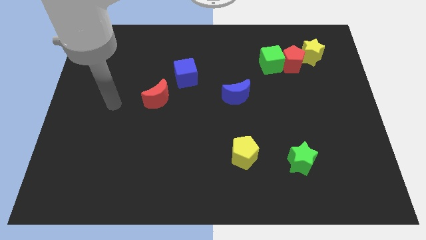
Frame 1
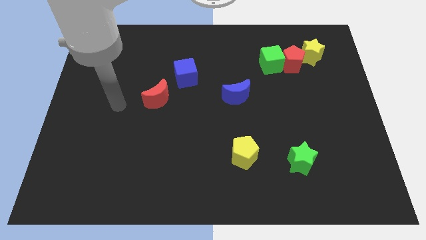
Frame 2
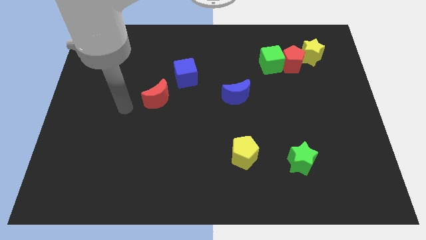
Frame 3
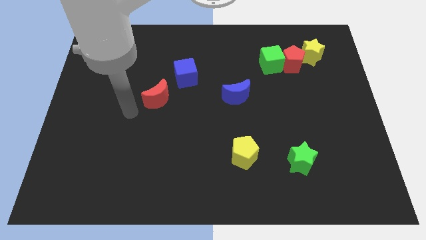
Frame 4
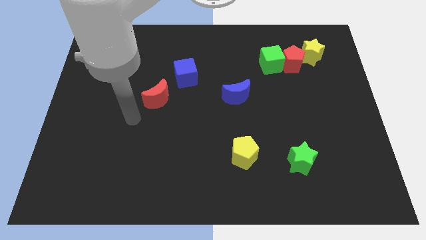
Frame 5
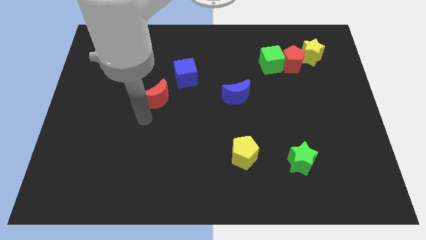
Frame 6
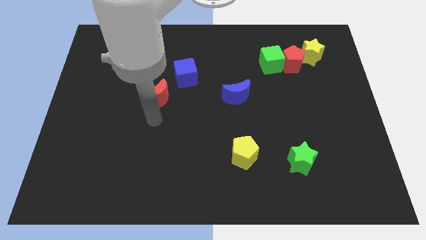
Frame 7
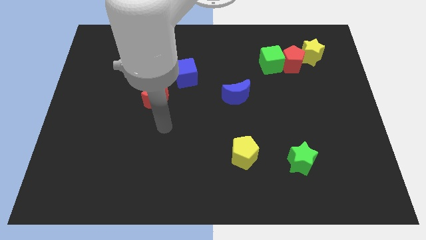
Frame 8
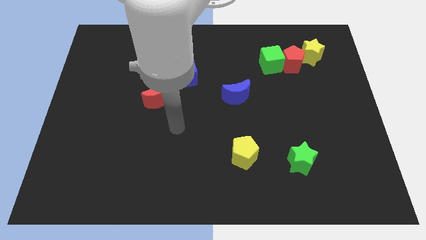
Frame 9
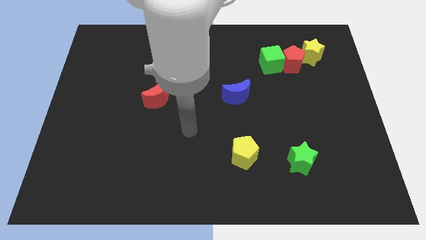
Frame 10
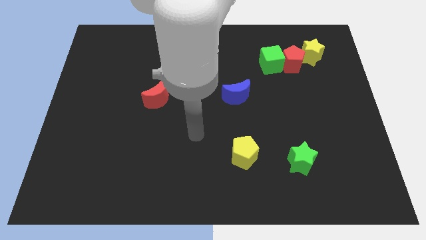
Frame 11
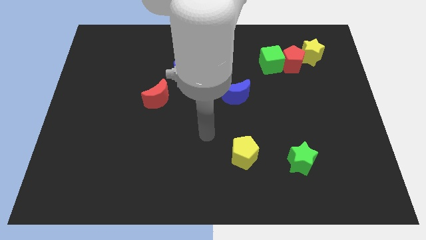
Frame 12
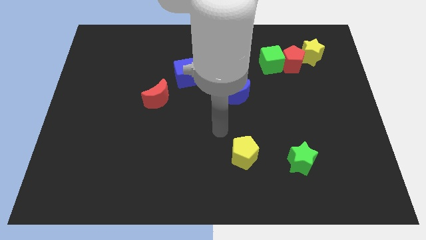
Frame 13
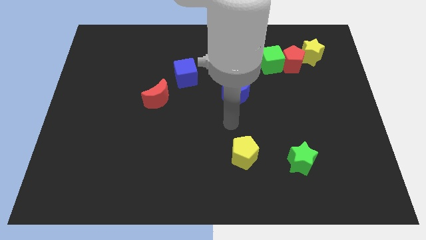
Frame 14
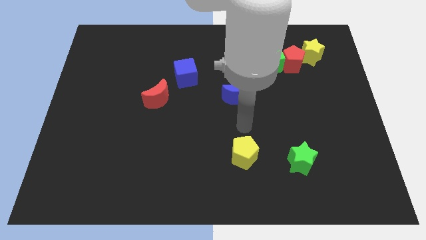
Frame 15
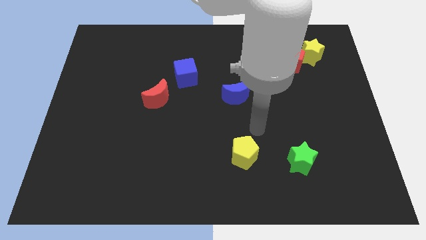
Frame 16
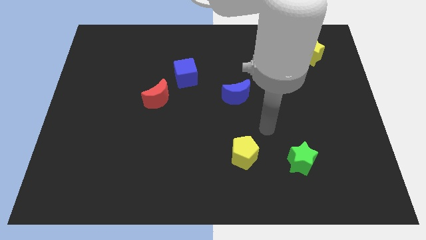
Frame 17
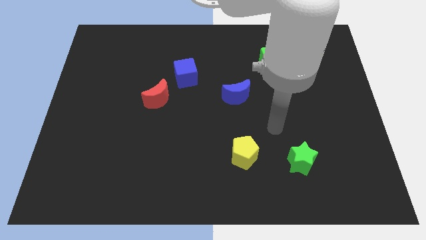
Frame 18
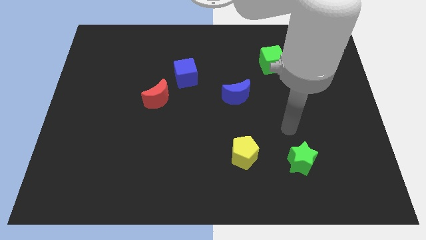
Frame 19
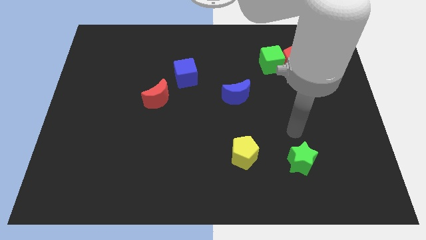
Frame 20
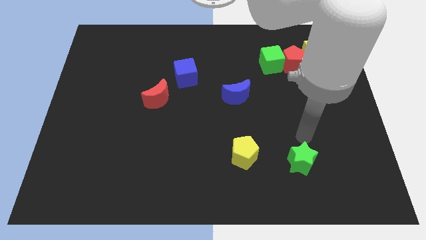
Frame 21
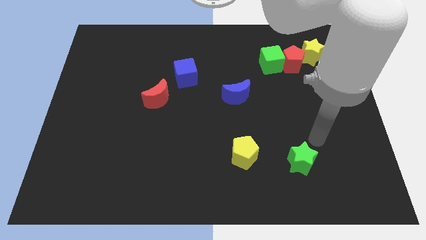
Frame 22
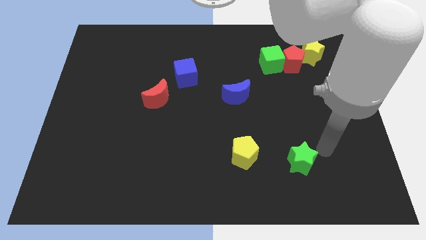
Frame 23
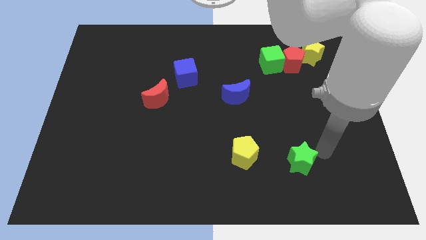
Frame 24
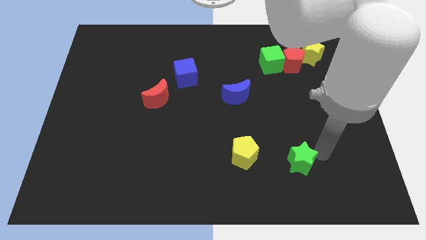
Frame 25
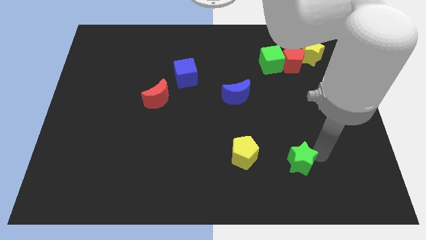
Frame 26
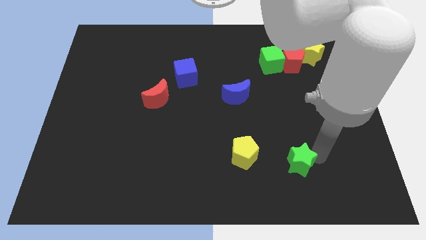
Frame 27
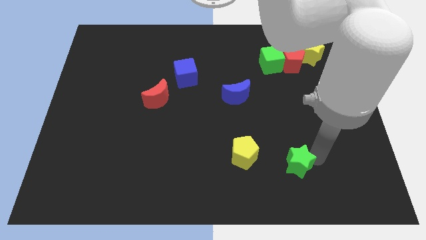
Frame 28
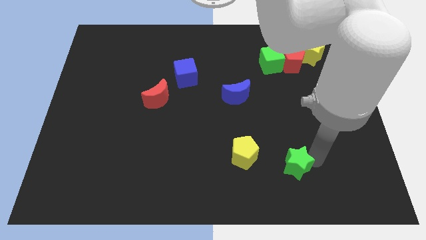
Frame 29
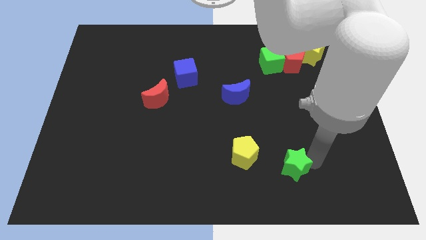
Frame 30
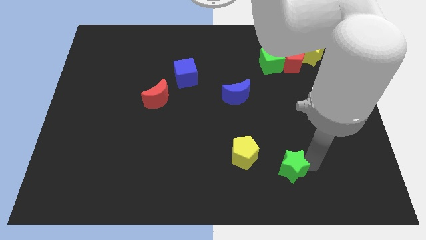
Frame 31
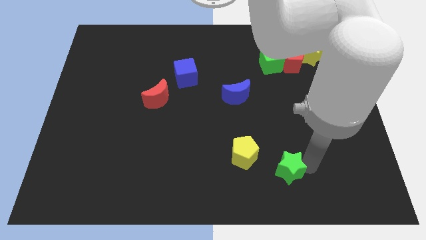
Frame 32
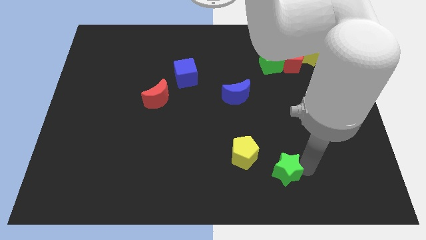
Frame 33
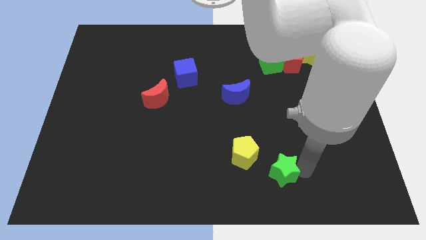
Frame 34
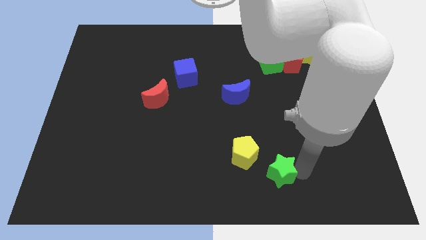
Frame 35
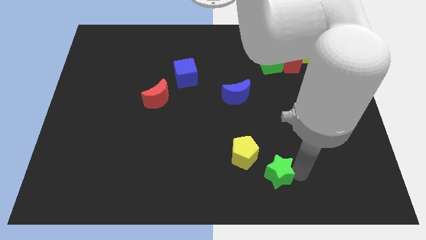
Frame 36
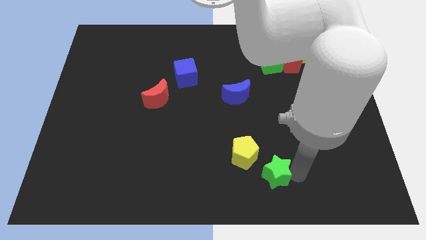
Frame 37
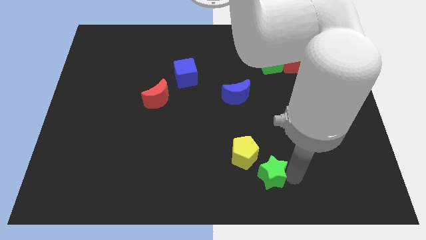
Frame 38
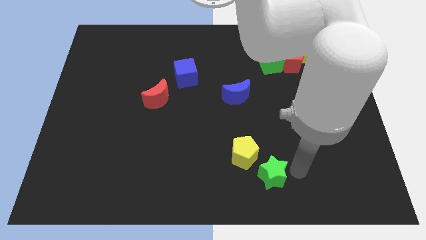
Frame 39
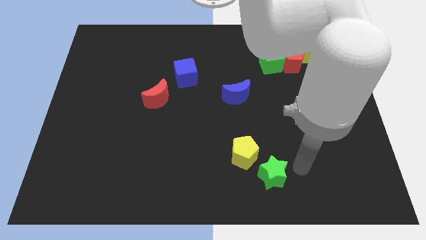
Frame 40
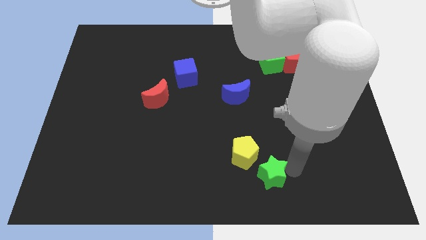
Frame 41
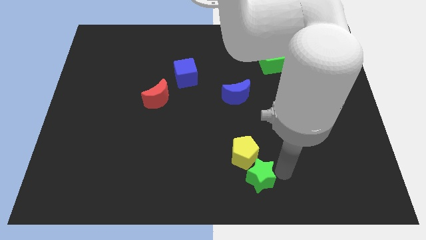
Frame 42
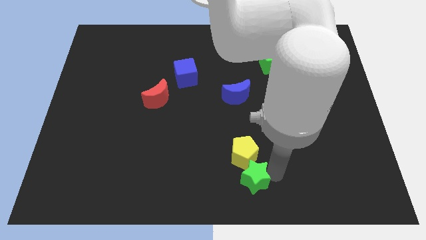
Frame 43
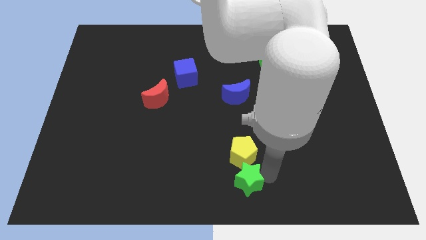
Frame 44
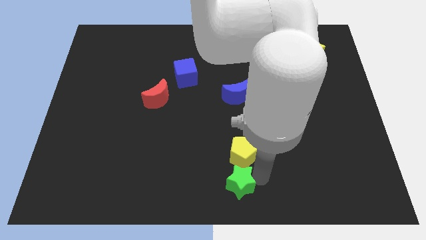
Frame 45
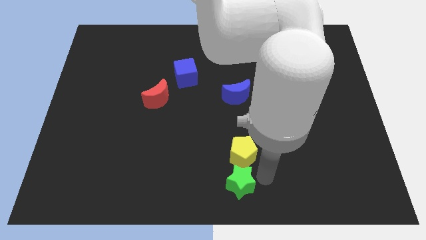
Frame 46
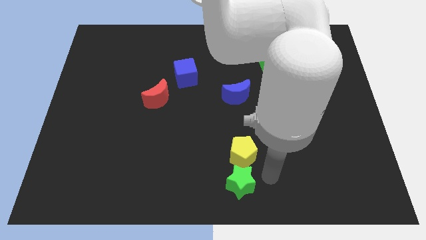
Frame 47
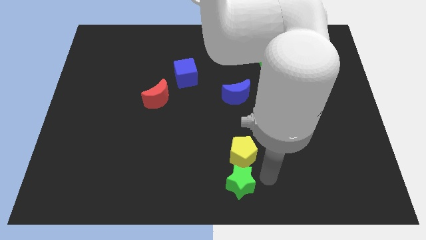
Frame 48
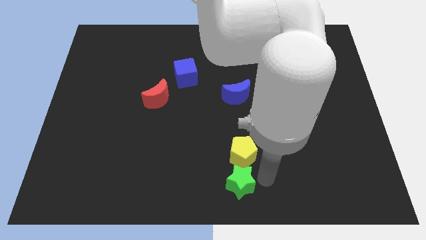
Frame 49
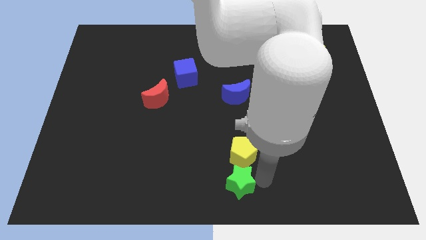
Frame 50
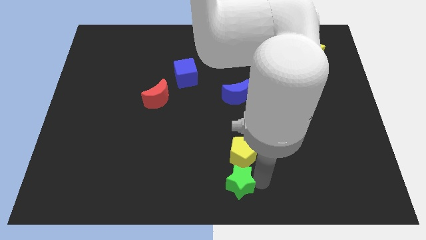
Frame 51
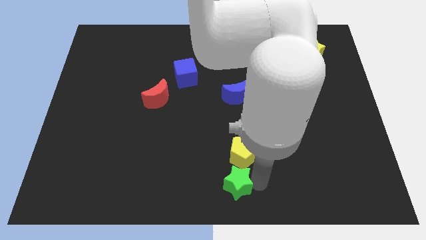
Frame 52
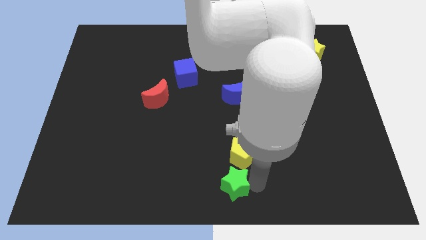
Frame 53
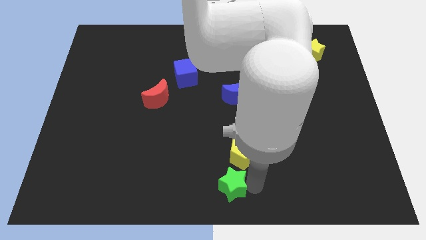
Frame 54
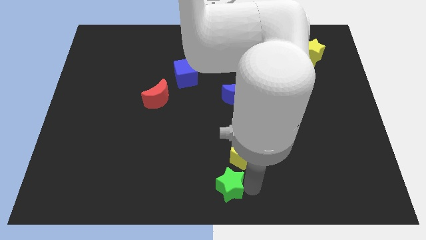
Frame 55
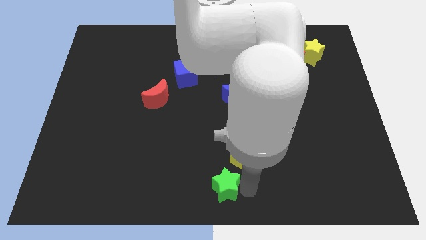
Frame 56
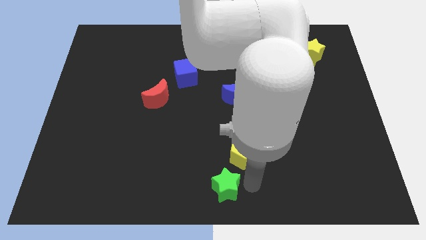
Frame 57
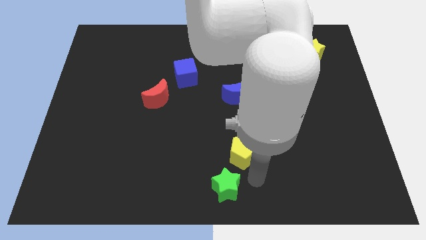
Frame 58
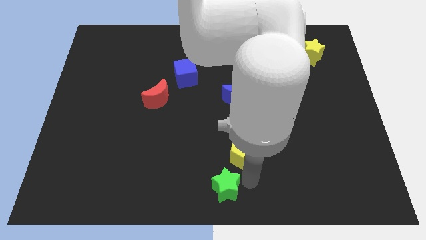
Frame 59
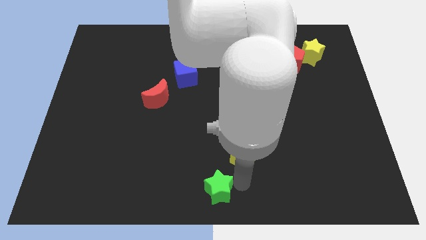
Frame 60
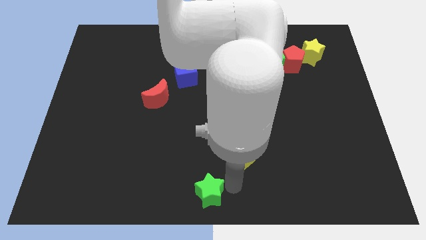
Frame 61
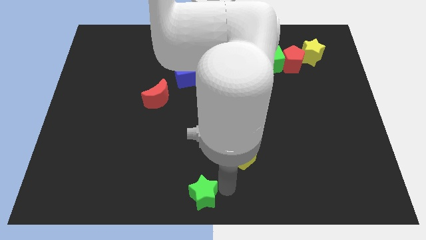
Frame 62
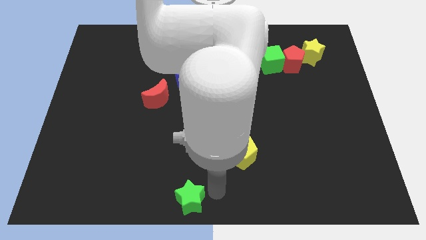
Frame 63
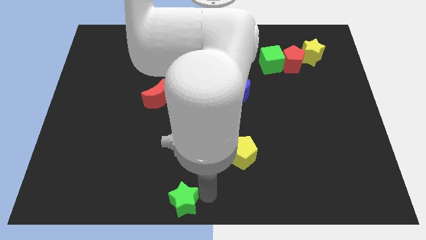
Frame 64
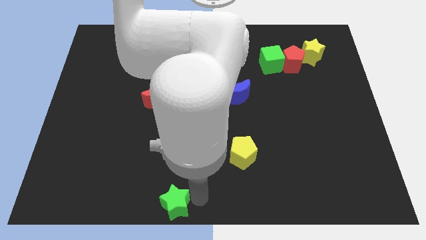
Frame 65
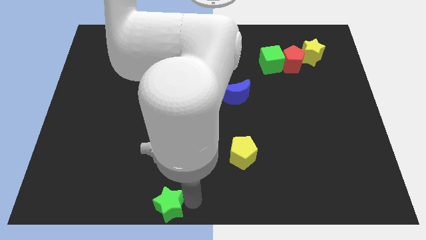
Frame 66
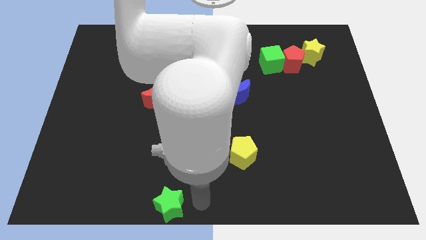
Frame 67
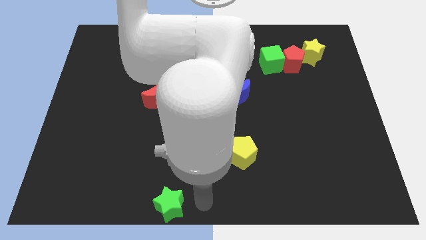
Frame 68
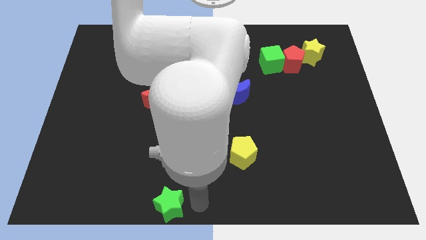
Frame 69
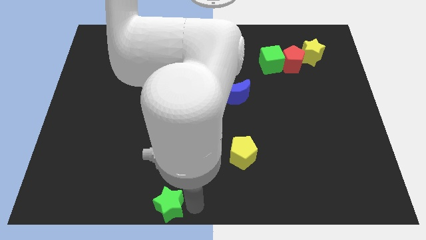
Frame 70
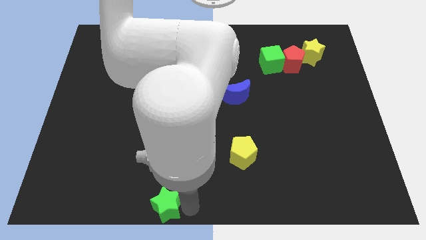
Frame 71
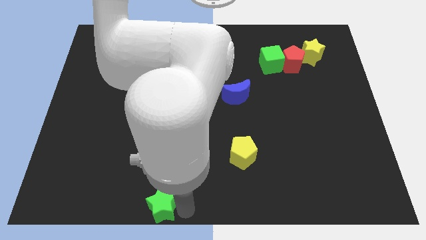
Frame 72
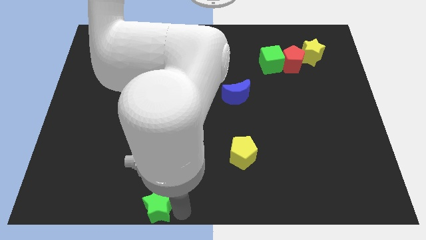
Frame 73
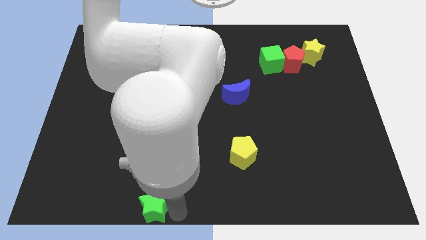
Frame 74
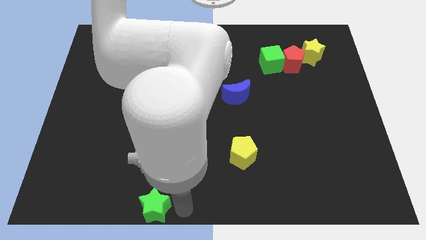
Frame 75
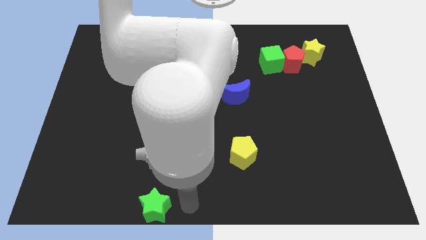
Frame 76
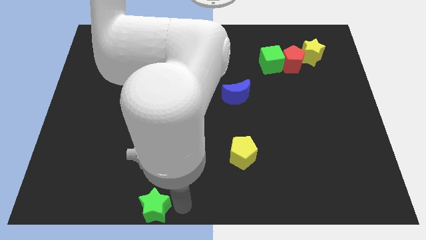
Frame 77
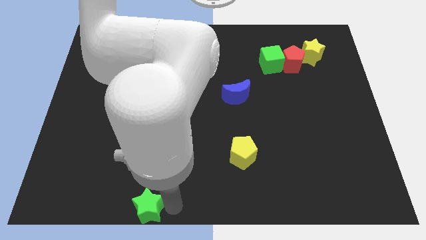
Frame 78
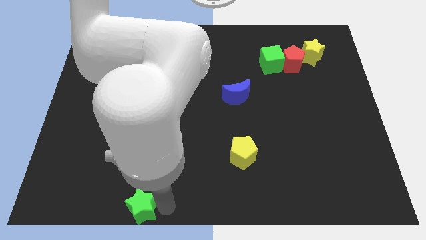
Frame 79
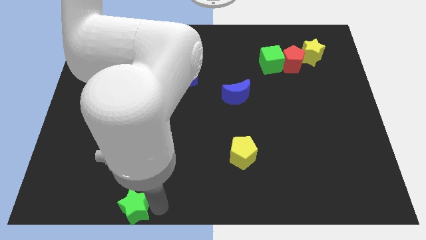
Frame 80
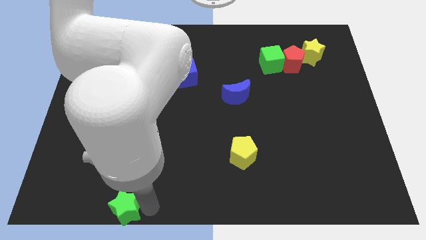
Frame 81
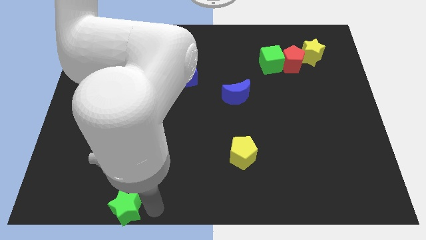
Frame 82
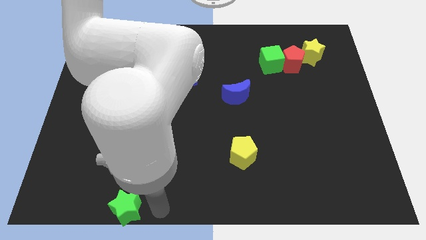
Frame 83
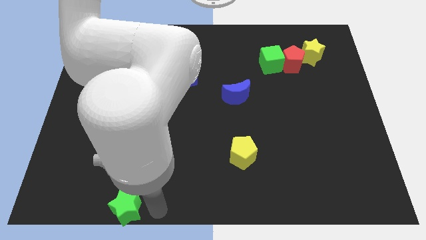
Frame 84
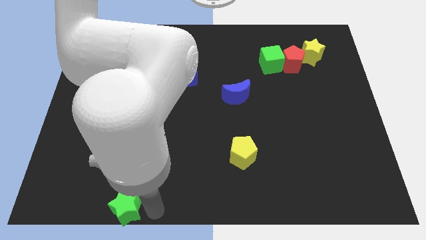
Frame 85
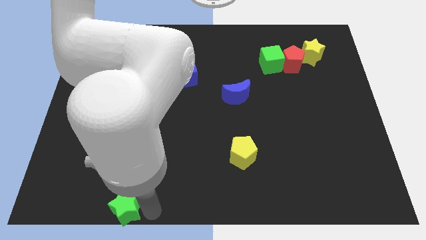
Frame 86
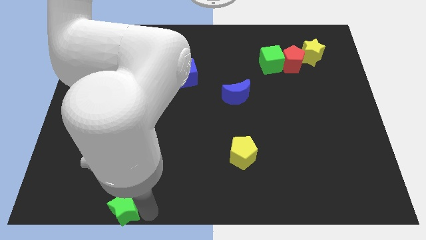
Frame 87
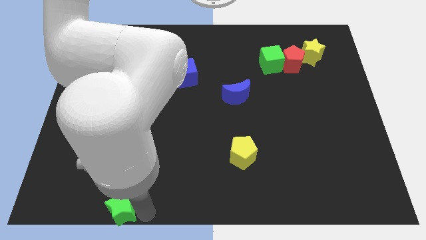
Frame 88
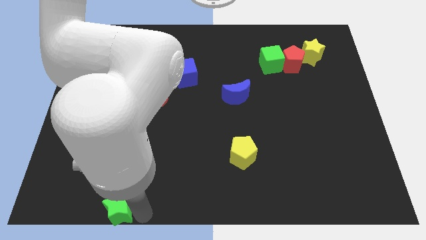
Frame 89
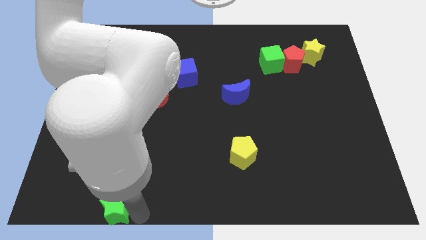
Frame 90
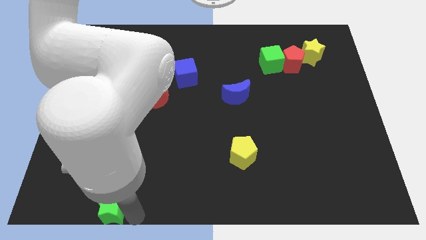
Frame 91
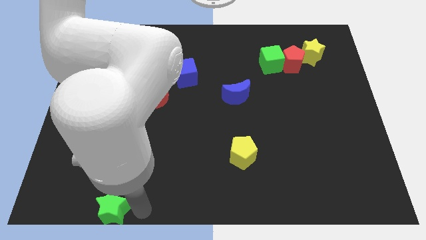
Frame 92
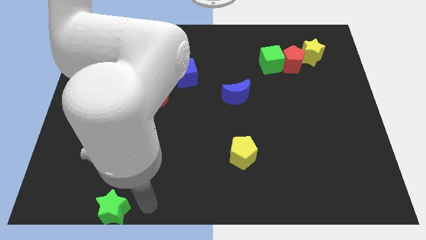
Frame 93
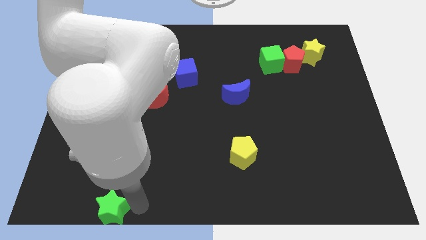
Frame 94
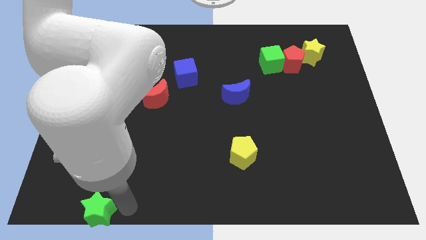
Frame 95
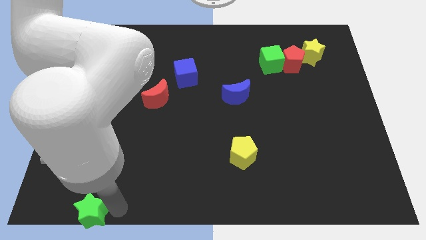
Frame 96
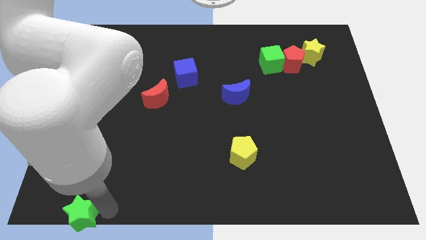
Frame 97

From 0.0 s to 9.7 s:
slide the green star to the lower left corner
